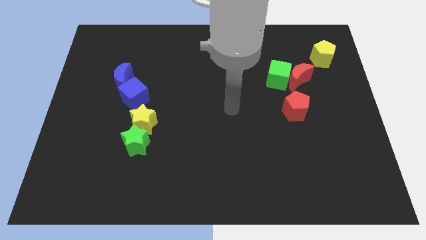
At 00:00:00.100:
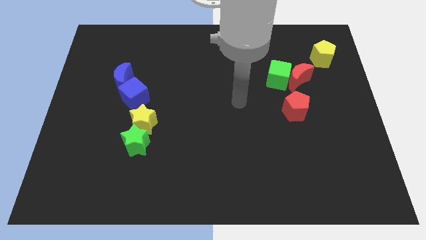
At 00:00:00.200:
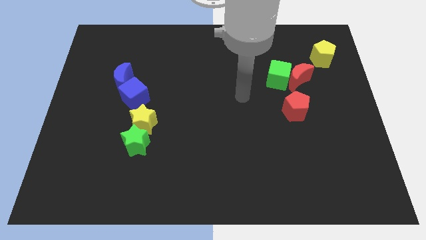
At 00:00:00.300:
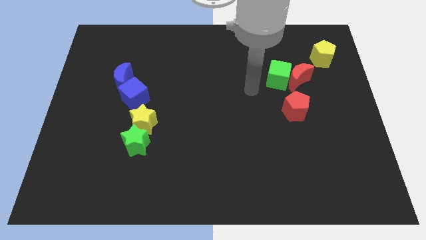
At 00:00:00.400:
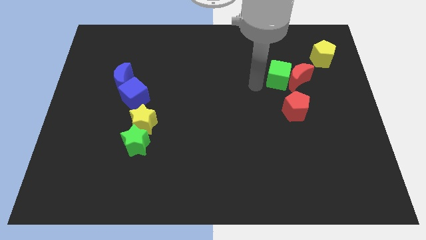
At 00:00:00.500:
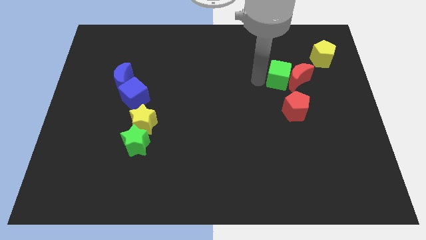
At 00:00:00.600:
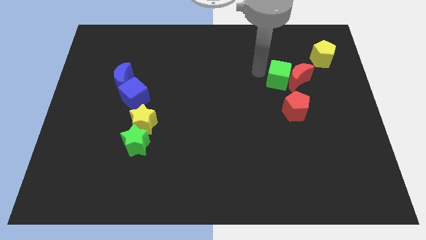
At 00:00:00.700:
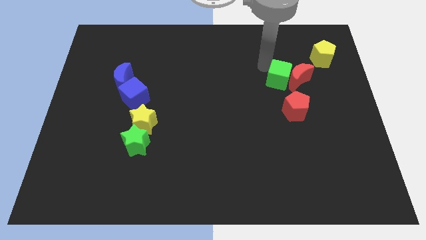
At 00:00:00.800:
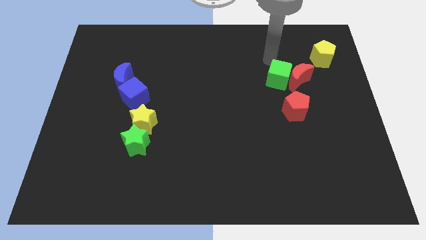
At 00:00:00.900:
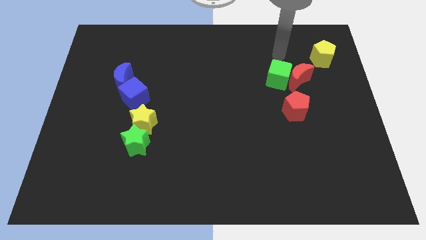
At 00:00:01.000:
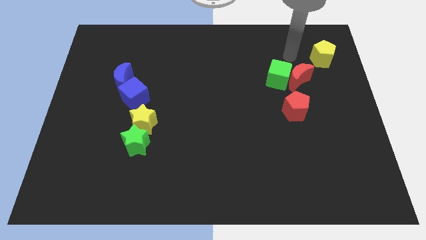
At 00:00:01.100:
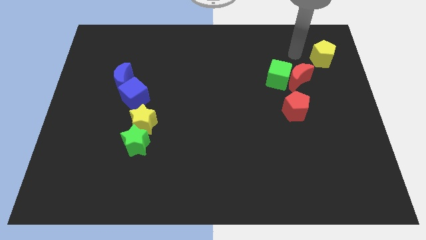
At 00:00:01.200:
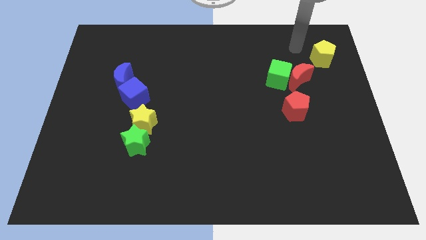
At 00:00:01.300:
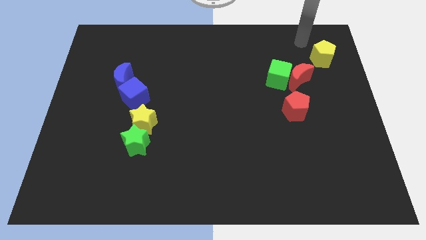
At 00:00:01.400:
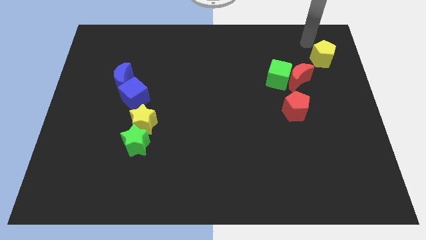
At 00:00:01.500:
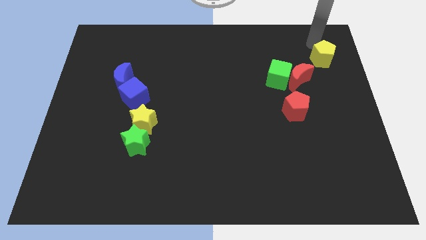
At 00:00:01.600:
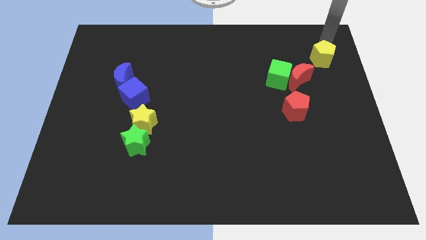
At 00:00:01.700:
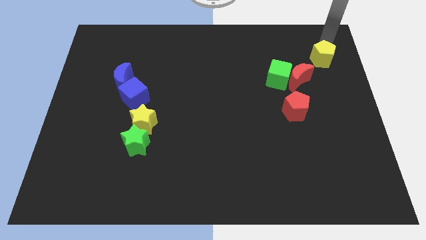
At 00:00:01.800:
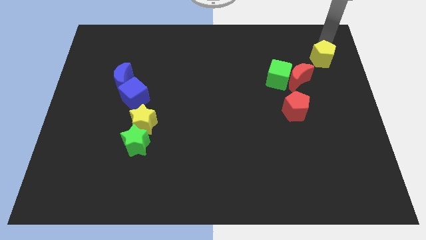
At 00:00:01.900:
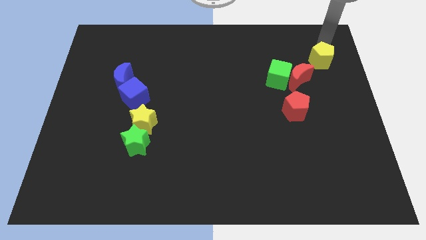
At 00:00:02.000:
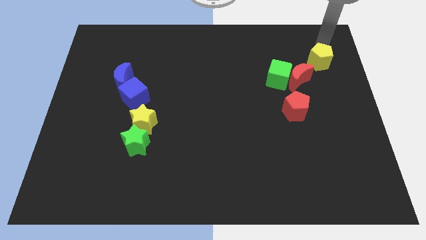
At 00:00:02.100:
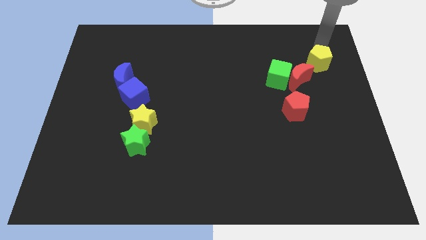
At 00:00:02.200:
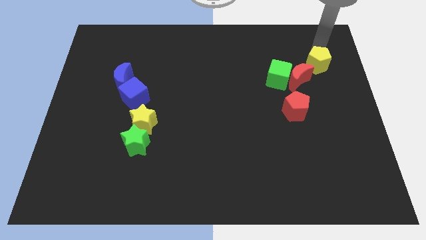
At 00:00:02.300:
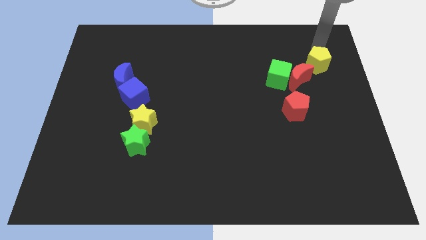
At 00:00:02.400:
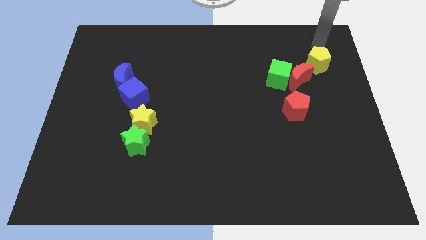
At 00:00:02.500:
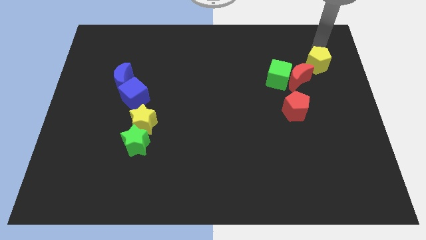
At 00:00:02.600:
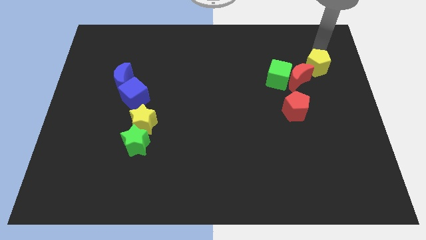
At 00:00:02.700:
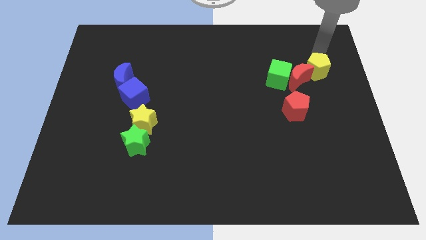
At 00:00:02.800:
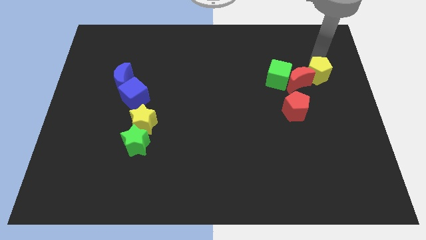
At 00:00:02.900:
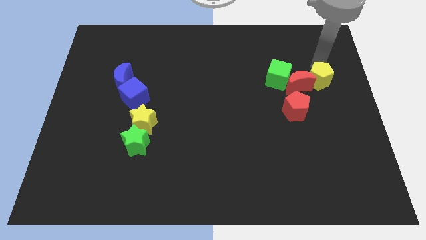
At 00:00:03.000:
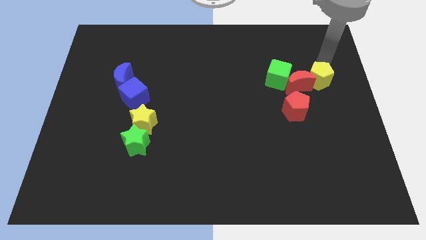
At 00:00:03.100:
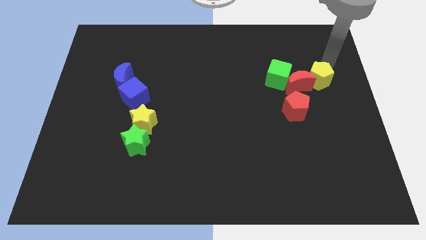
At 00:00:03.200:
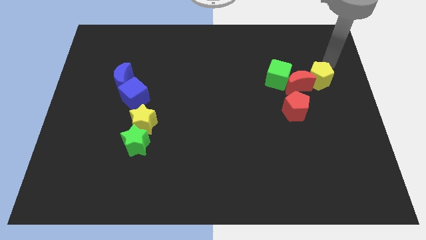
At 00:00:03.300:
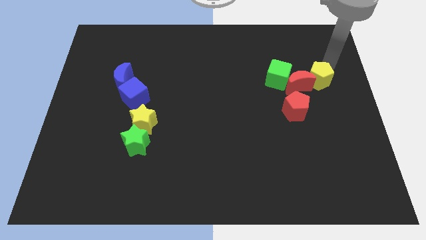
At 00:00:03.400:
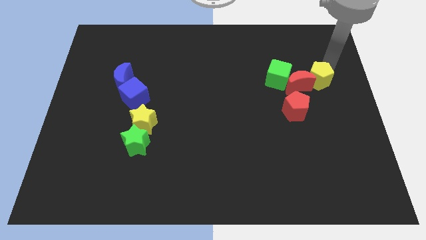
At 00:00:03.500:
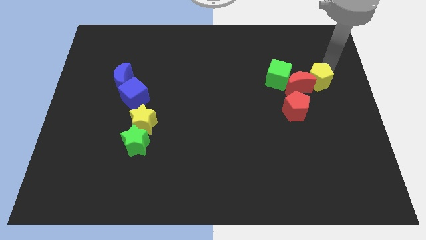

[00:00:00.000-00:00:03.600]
slide the yellow pentagon downwards and left somewhat

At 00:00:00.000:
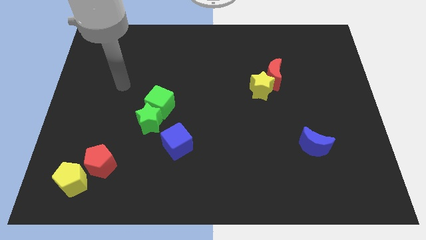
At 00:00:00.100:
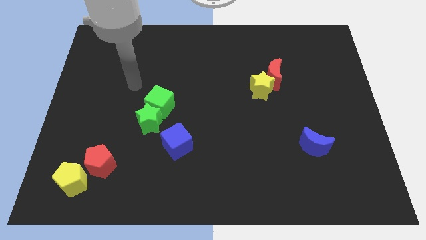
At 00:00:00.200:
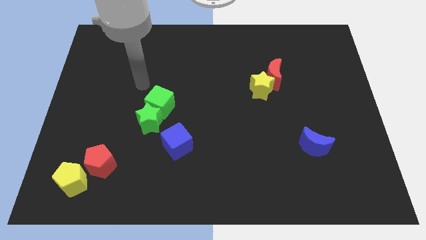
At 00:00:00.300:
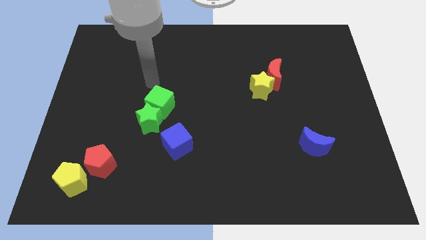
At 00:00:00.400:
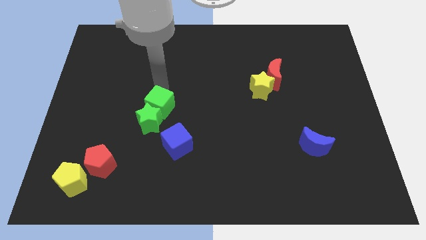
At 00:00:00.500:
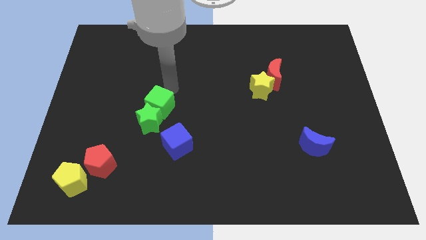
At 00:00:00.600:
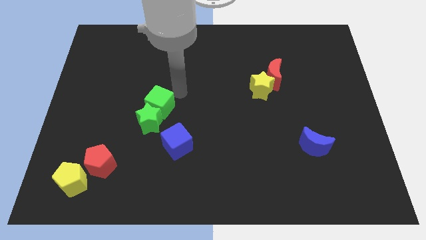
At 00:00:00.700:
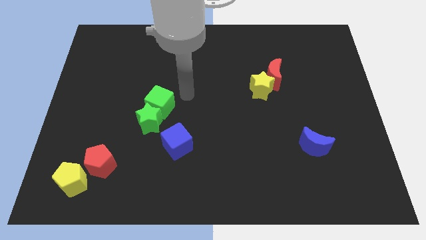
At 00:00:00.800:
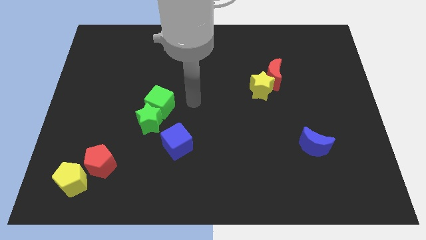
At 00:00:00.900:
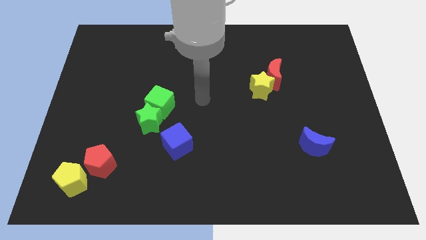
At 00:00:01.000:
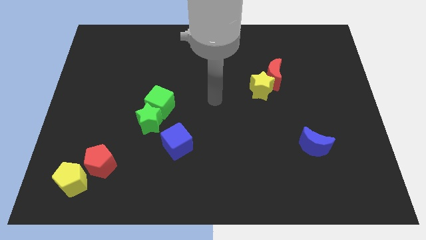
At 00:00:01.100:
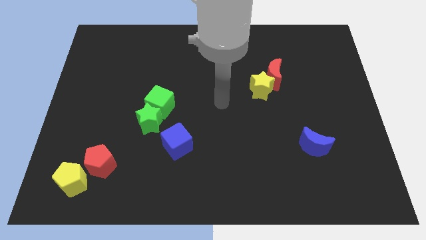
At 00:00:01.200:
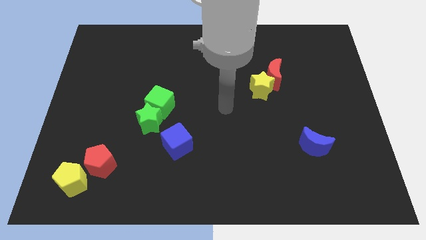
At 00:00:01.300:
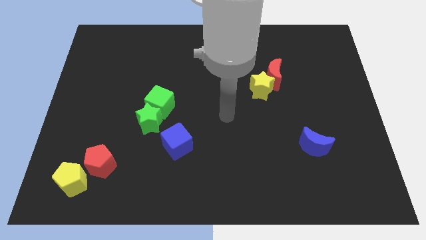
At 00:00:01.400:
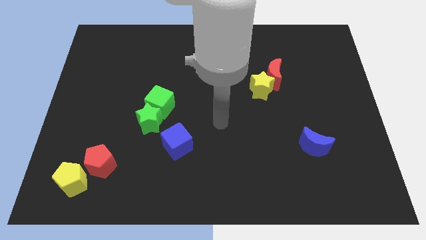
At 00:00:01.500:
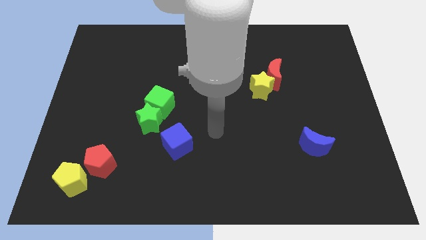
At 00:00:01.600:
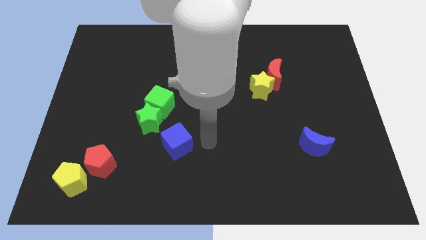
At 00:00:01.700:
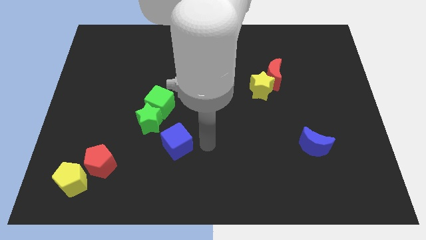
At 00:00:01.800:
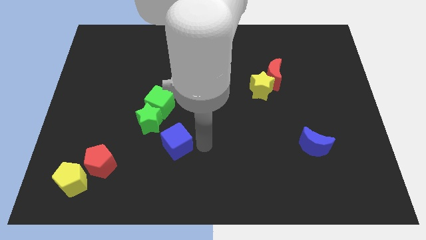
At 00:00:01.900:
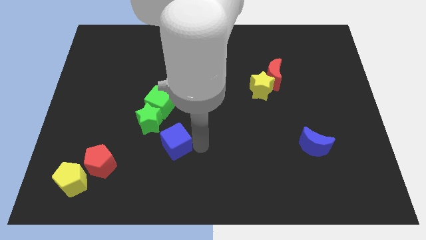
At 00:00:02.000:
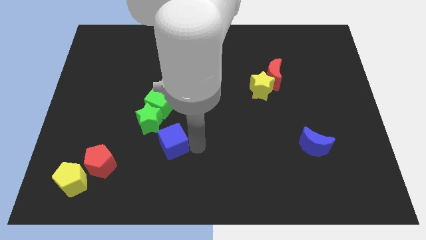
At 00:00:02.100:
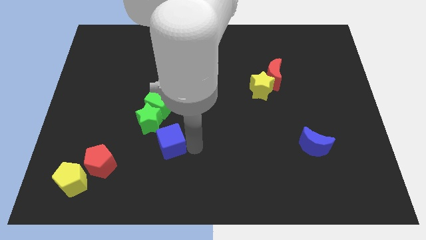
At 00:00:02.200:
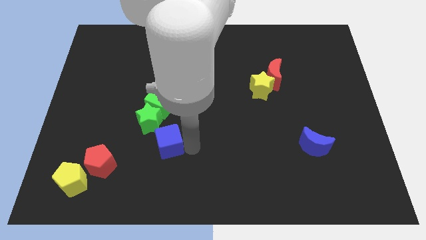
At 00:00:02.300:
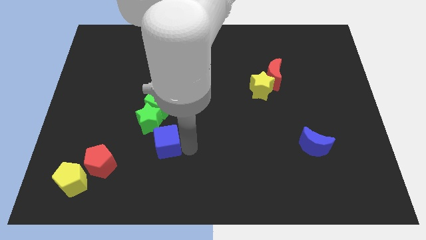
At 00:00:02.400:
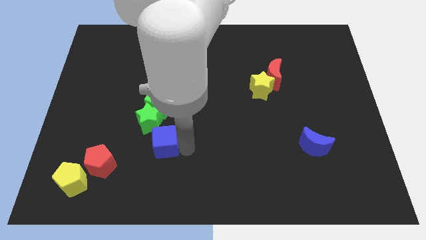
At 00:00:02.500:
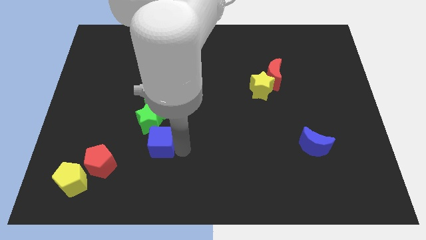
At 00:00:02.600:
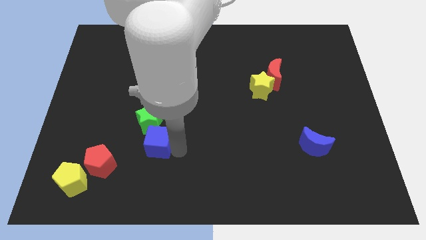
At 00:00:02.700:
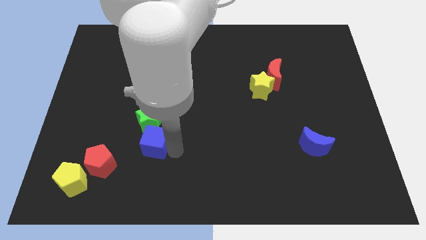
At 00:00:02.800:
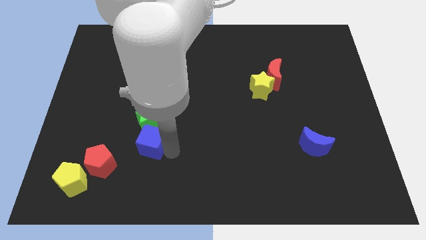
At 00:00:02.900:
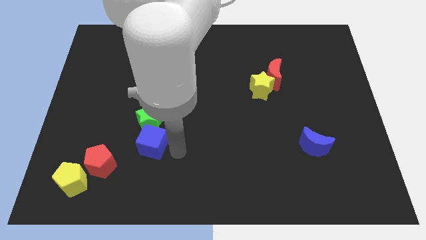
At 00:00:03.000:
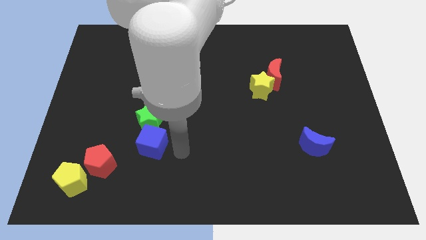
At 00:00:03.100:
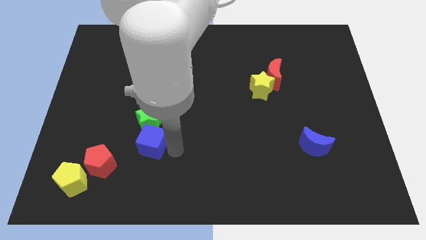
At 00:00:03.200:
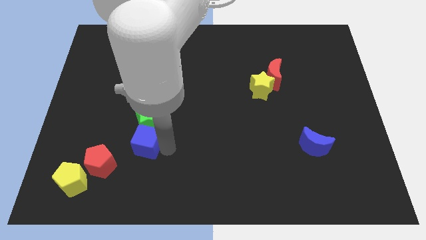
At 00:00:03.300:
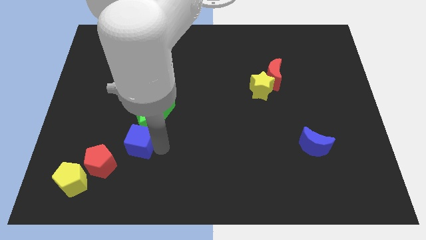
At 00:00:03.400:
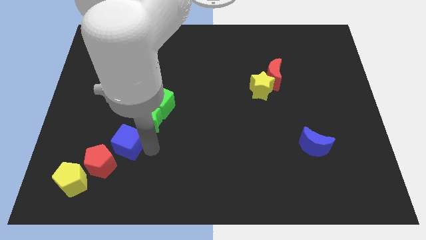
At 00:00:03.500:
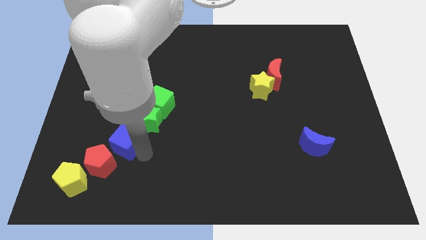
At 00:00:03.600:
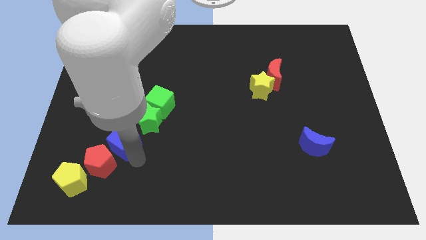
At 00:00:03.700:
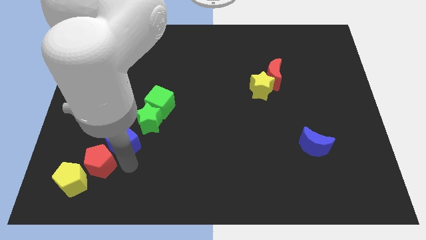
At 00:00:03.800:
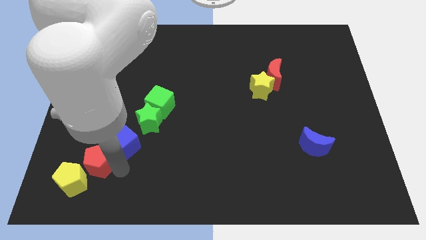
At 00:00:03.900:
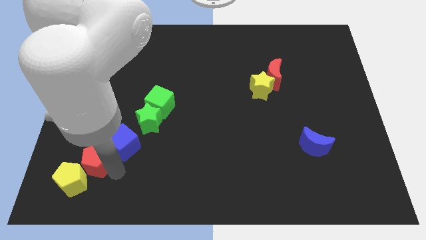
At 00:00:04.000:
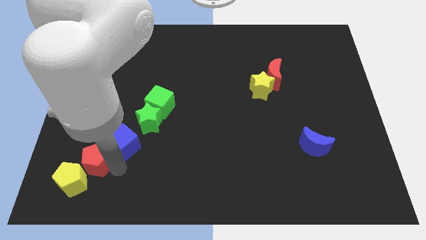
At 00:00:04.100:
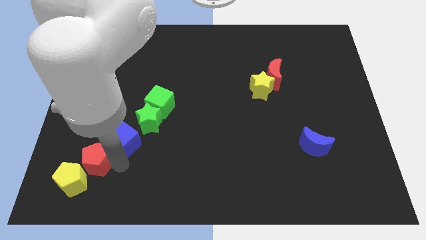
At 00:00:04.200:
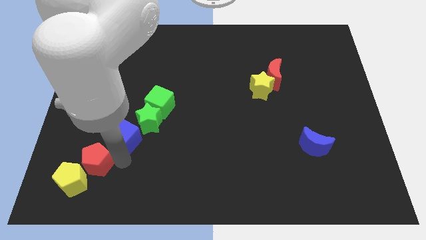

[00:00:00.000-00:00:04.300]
slide the blue cube a little bit upwards and left diagonally

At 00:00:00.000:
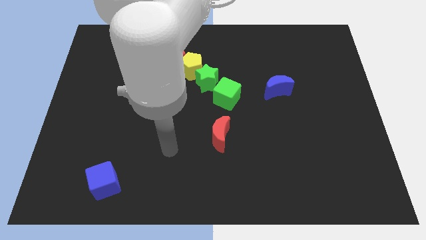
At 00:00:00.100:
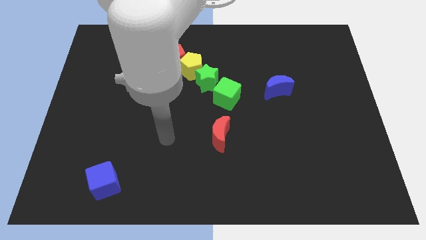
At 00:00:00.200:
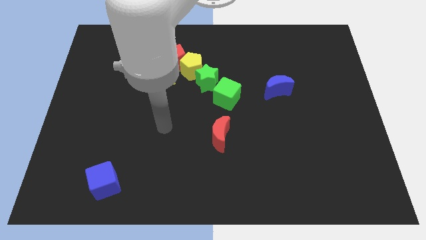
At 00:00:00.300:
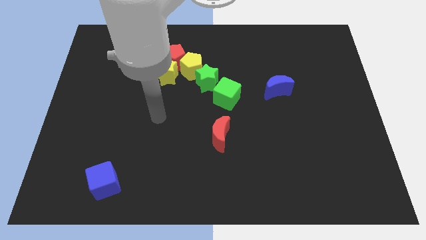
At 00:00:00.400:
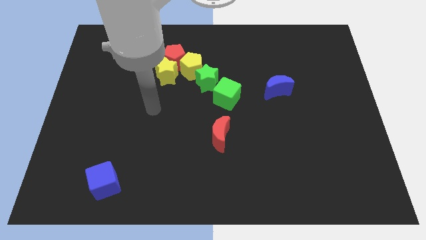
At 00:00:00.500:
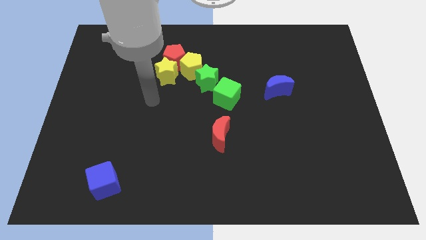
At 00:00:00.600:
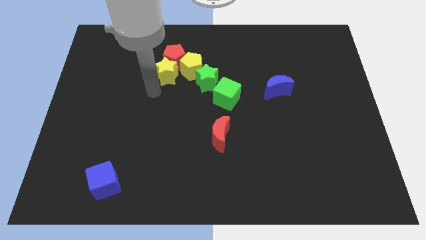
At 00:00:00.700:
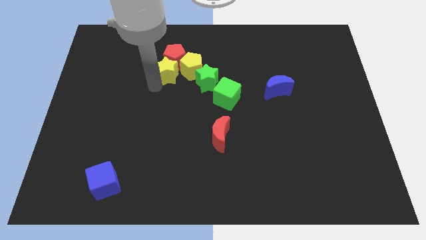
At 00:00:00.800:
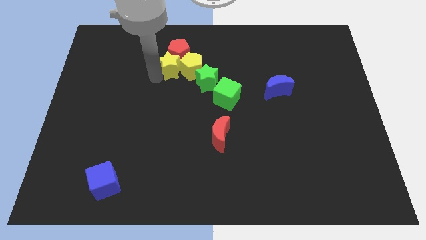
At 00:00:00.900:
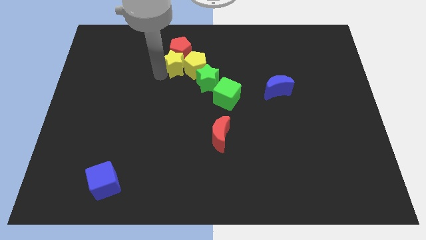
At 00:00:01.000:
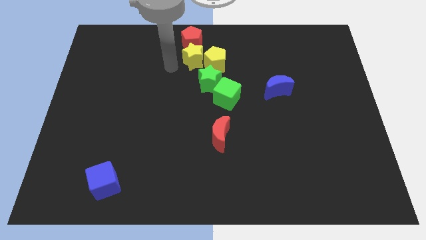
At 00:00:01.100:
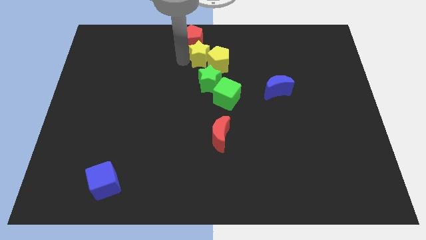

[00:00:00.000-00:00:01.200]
push the yellow pentagon a little to the right
